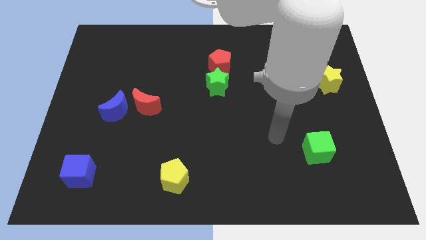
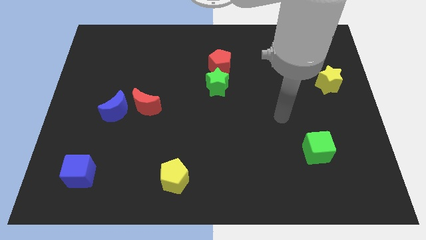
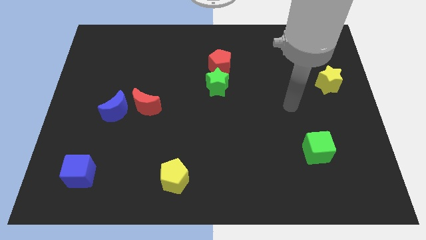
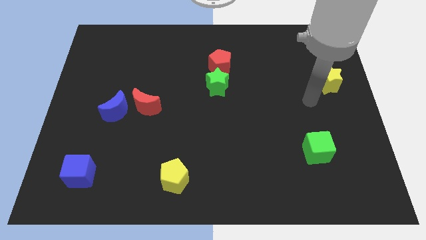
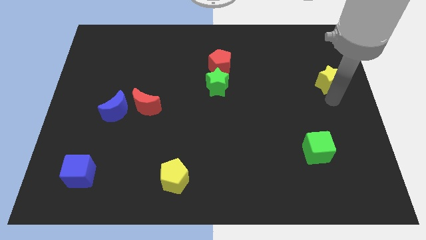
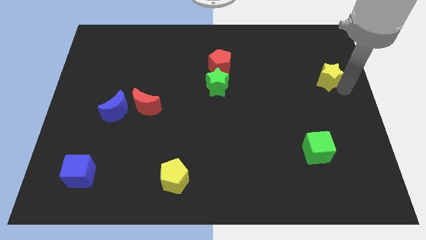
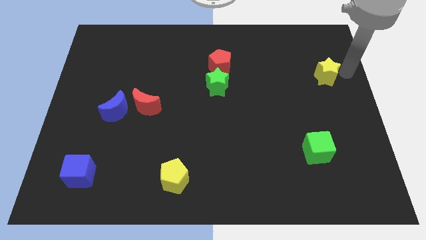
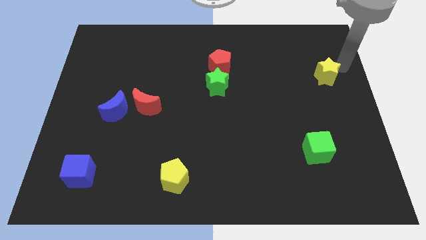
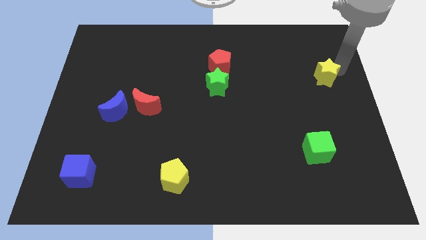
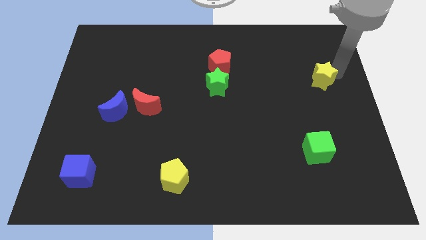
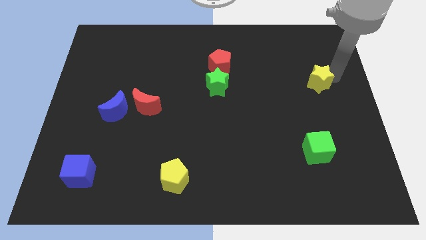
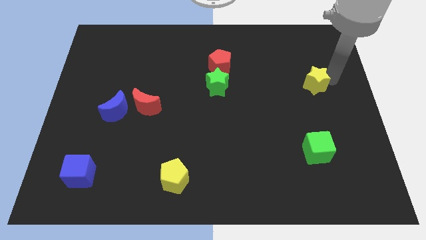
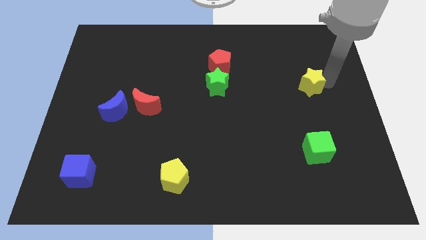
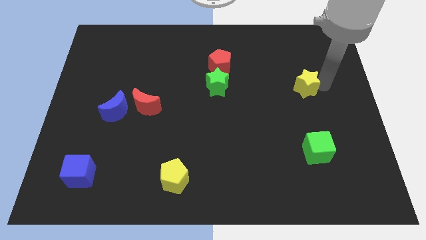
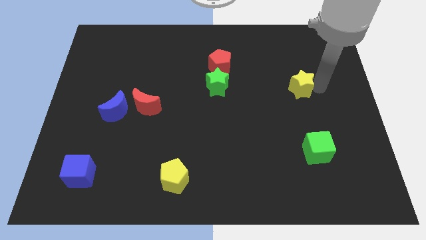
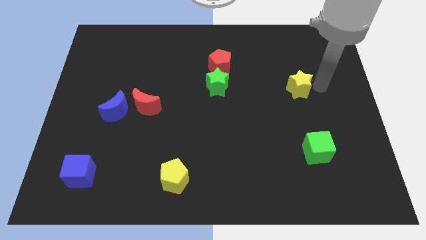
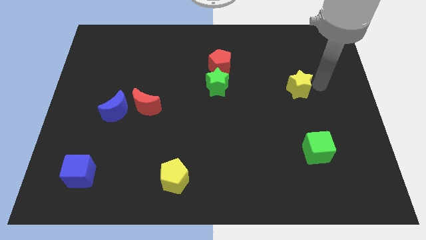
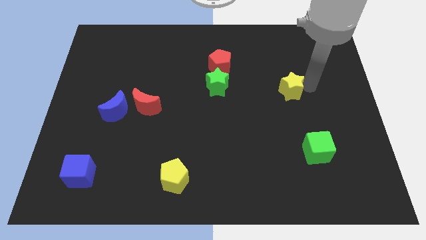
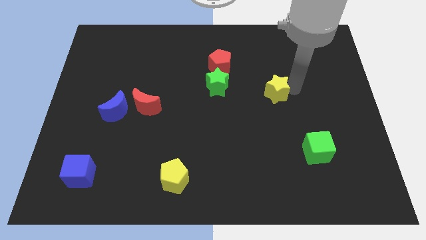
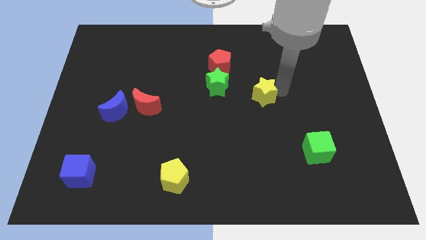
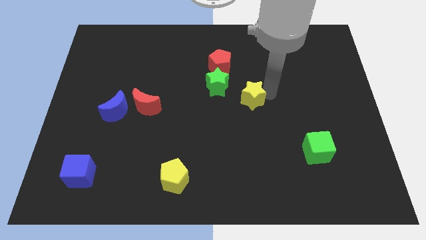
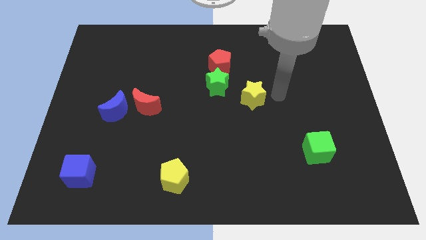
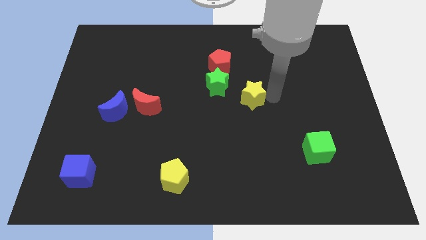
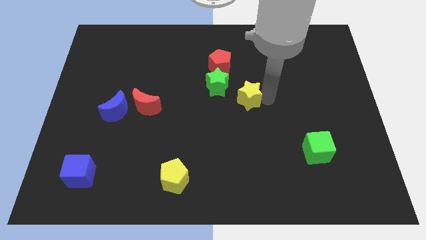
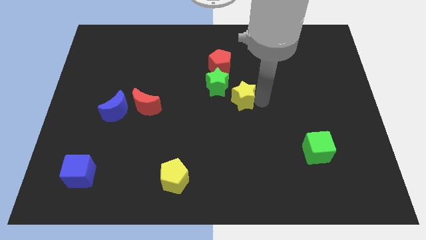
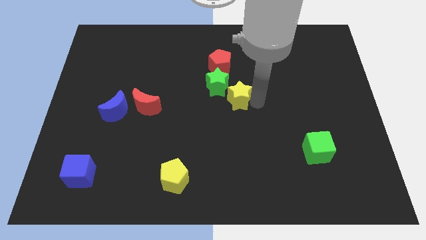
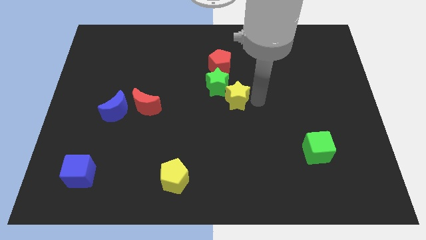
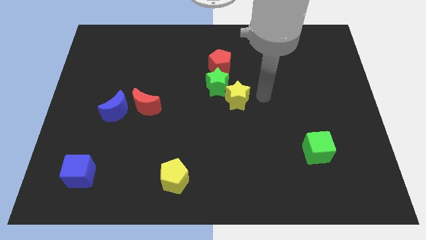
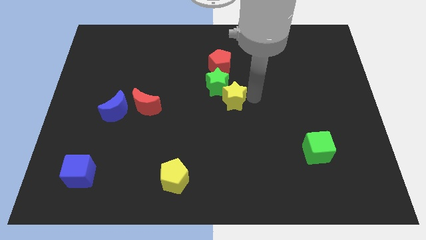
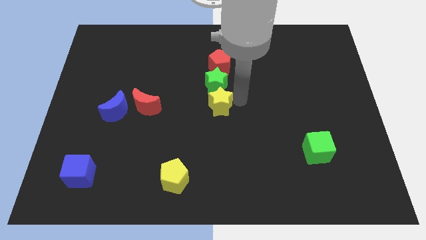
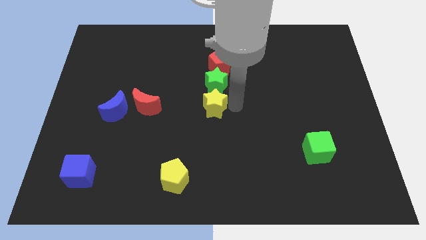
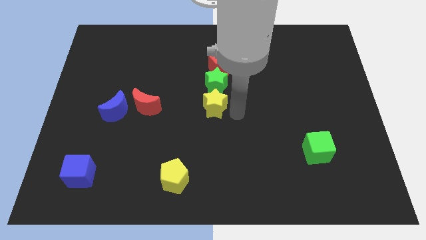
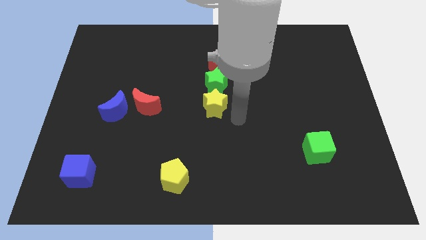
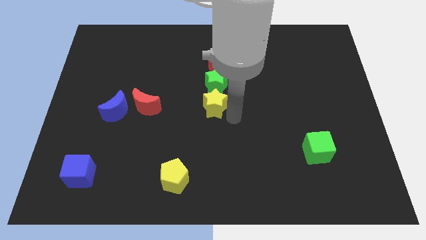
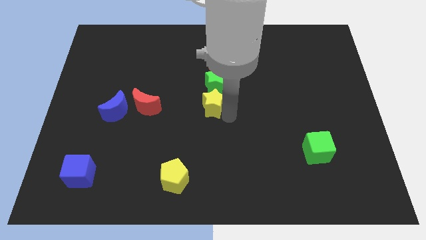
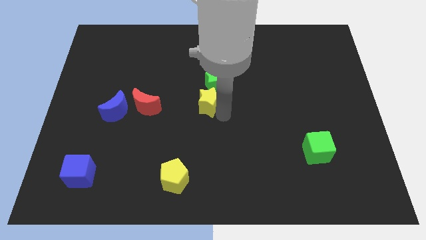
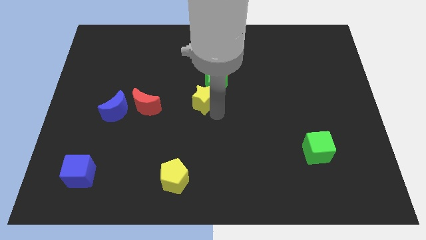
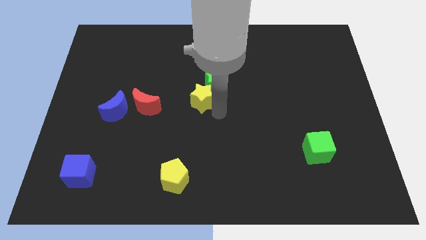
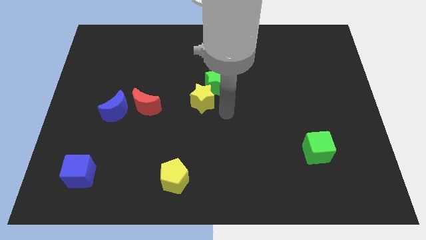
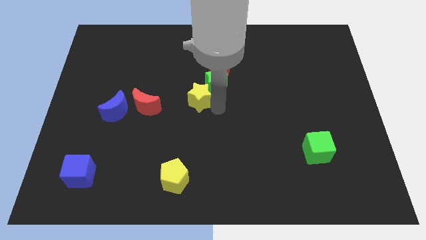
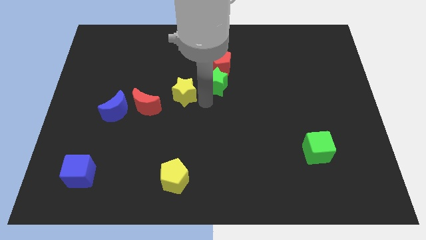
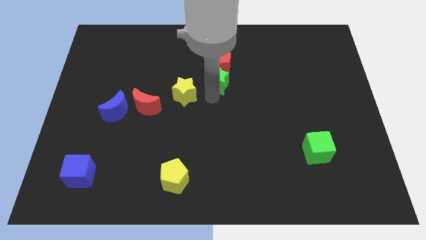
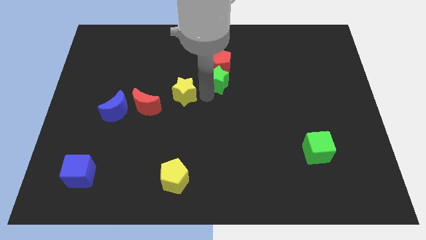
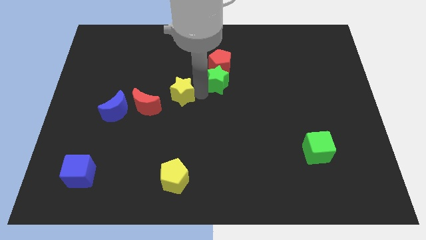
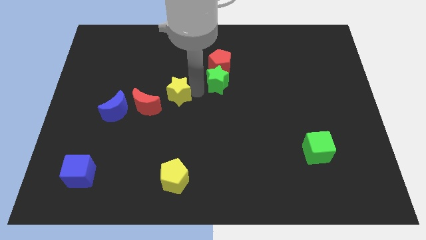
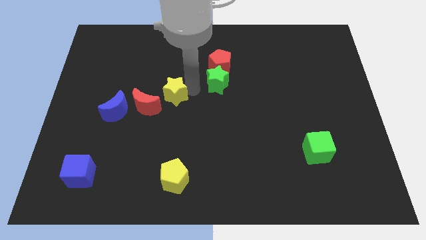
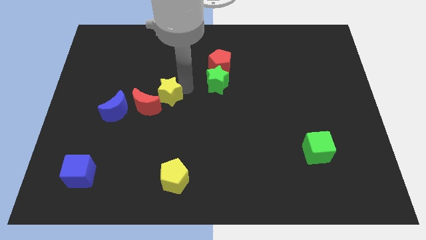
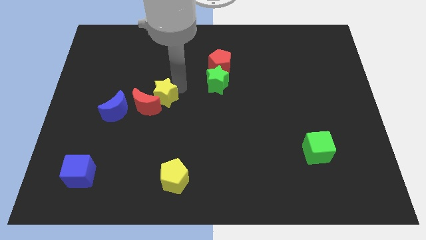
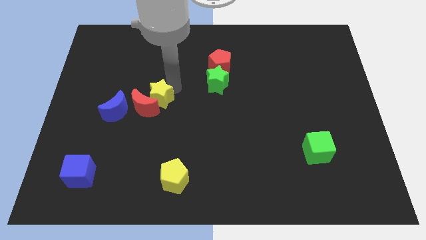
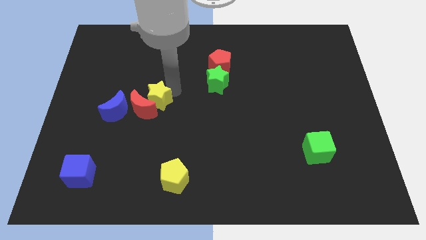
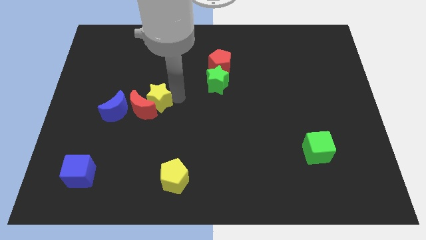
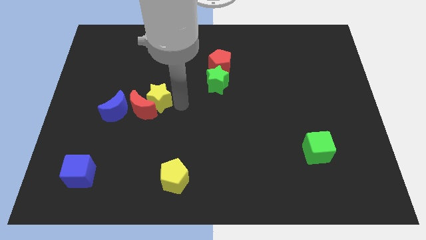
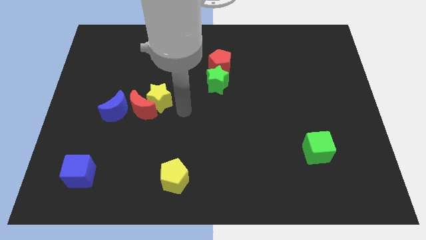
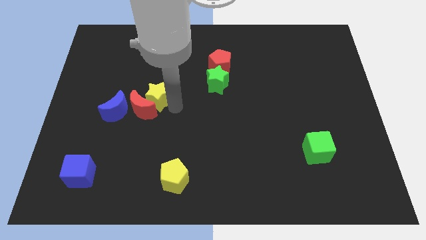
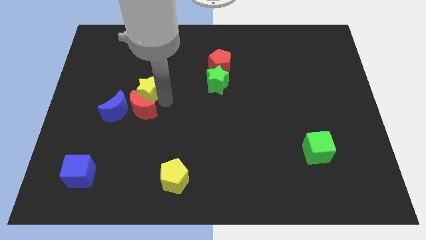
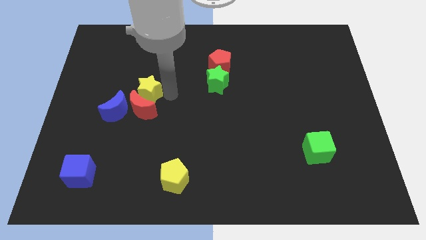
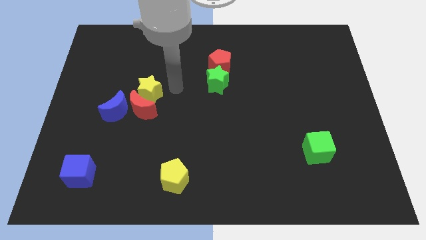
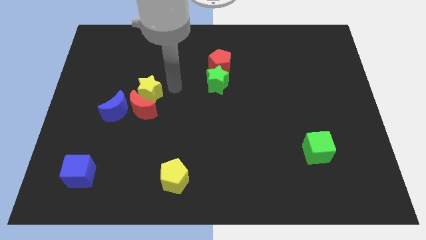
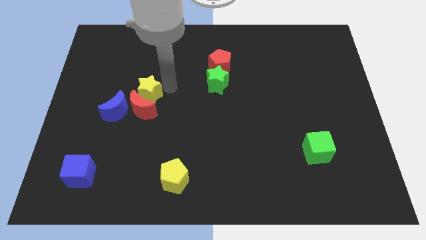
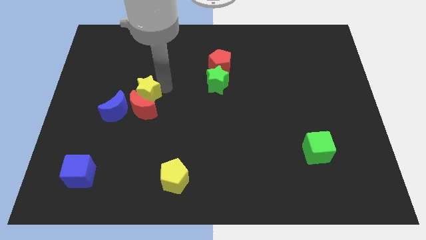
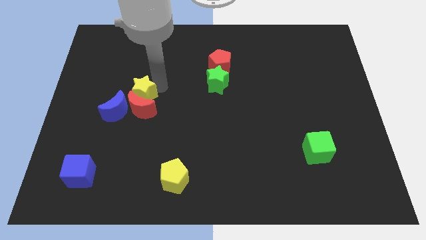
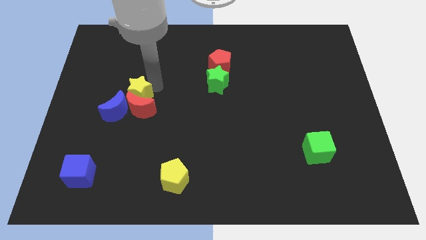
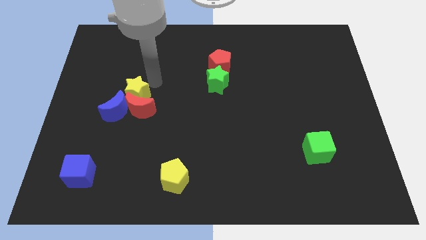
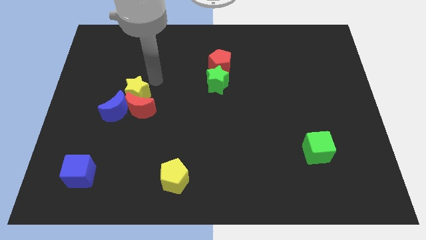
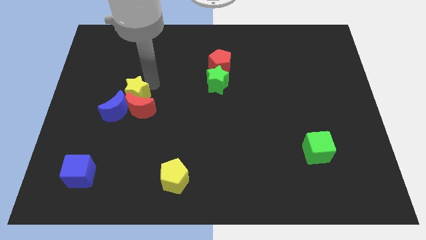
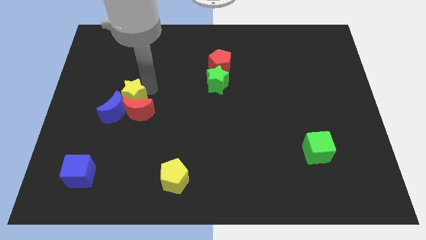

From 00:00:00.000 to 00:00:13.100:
move the yellow star close to the blue moon

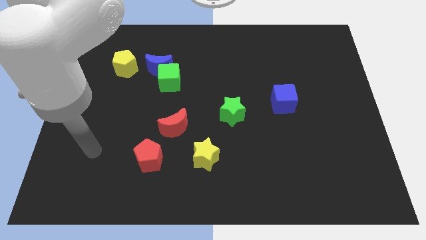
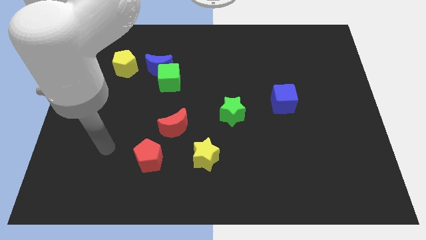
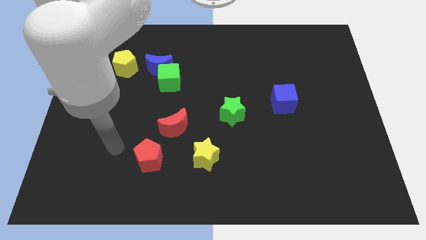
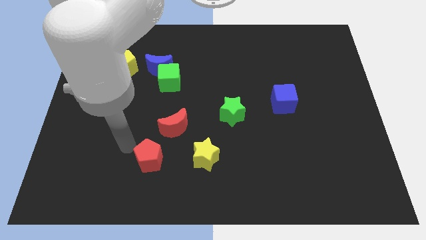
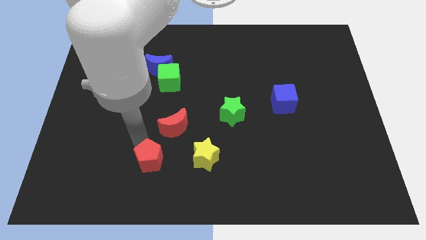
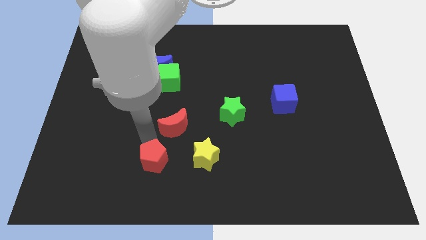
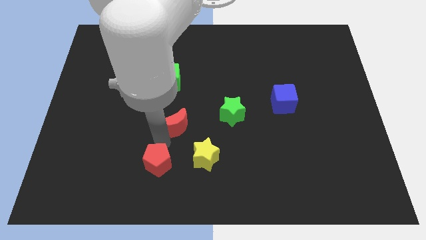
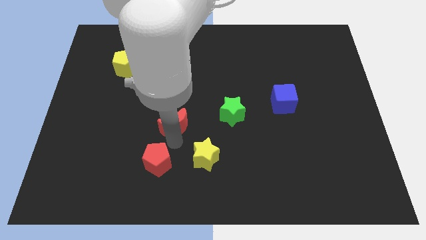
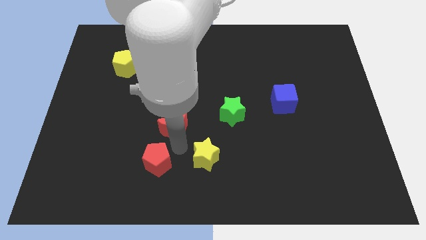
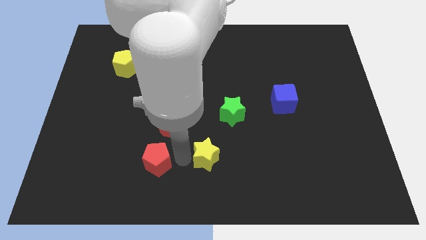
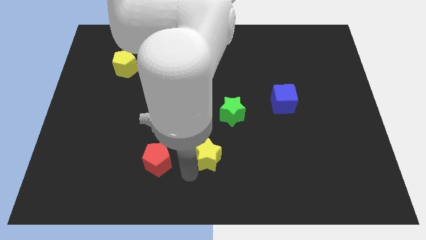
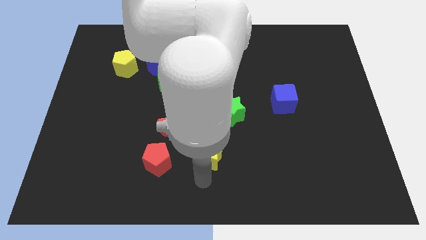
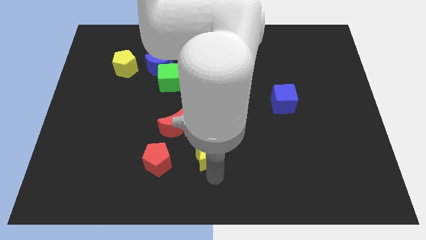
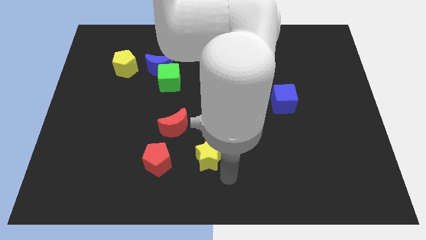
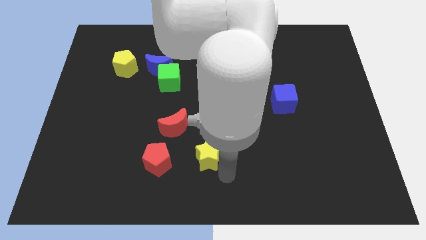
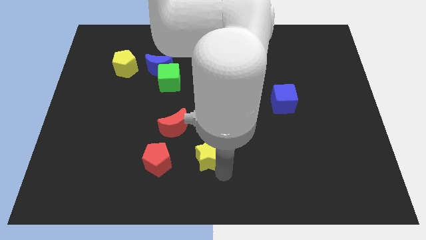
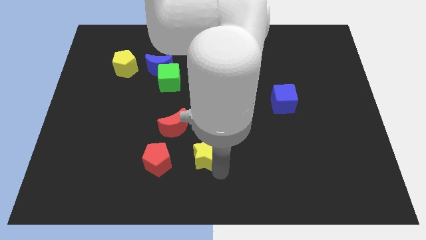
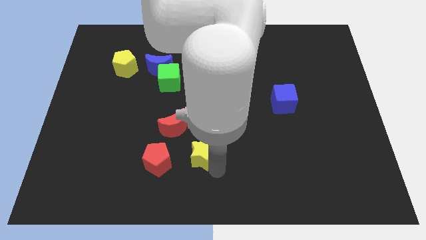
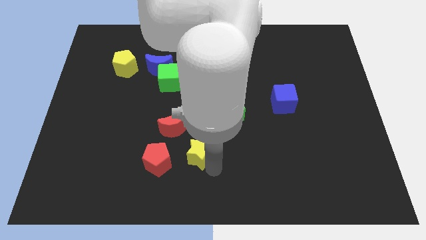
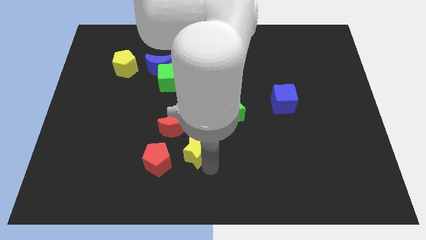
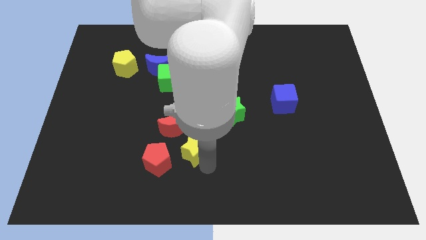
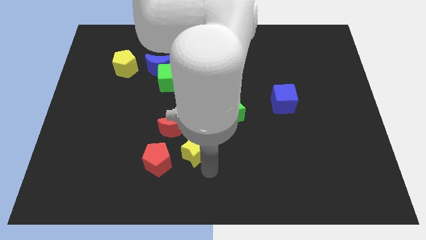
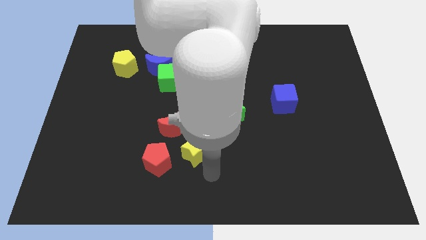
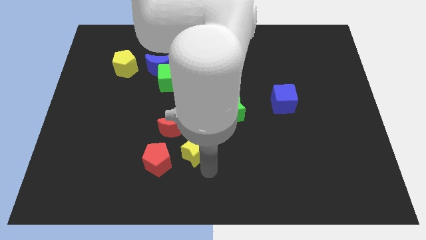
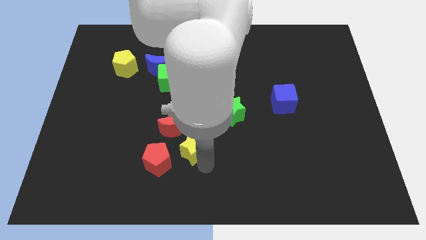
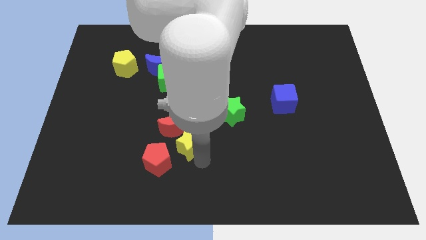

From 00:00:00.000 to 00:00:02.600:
slide the yellow star next to the red moon
